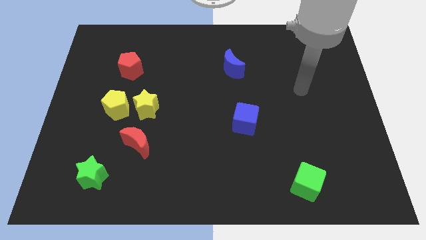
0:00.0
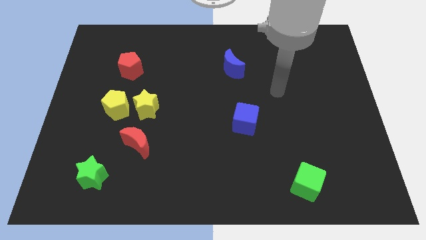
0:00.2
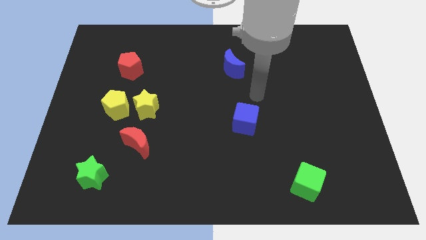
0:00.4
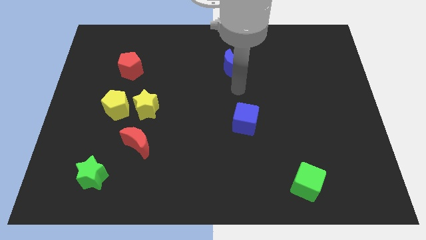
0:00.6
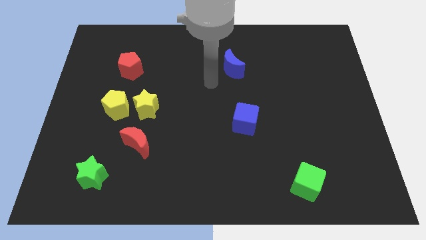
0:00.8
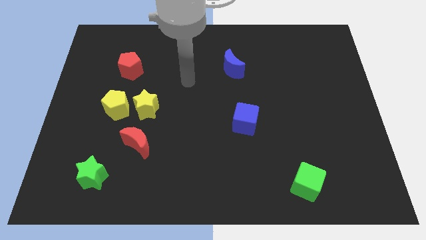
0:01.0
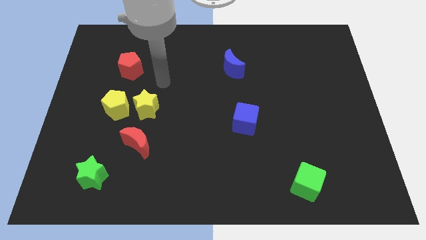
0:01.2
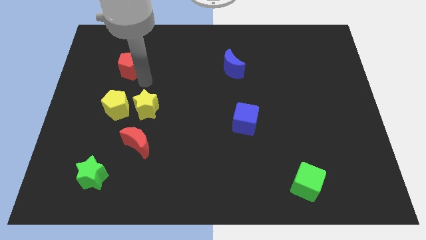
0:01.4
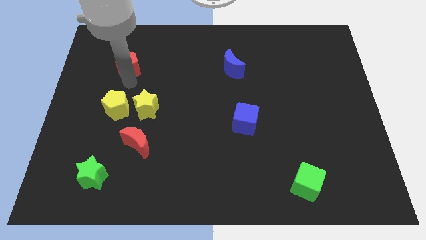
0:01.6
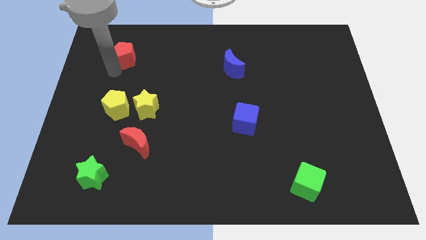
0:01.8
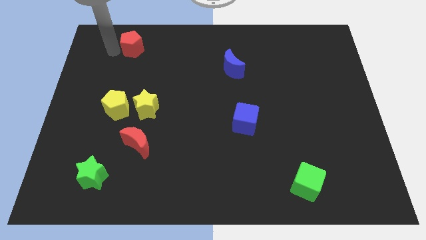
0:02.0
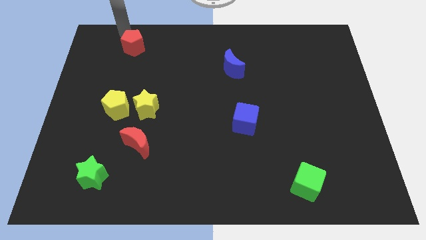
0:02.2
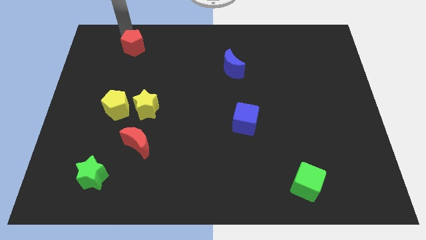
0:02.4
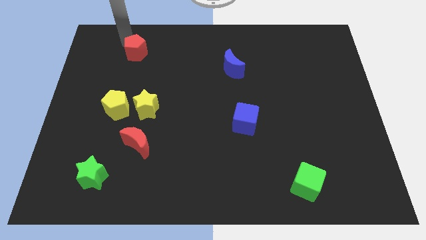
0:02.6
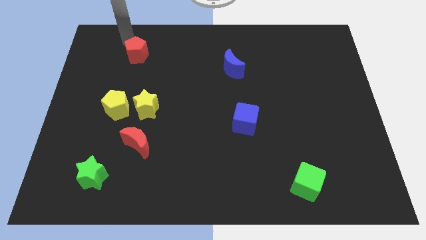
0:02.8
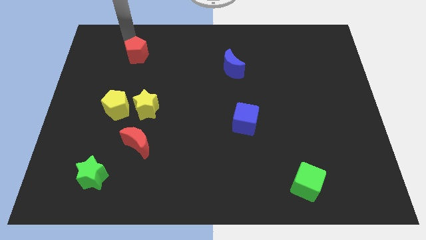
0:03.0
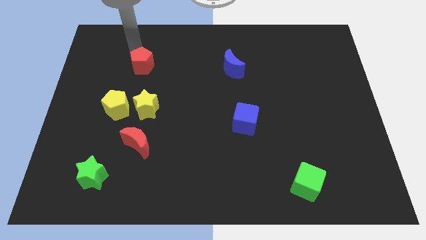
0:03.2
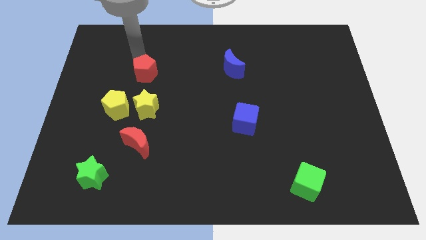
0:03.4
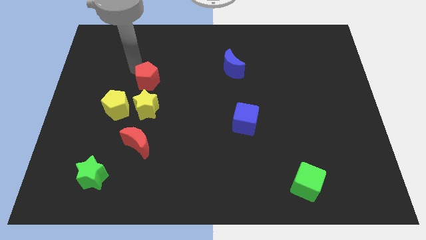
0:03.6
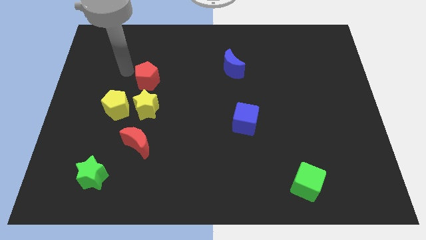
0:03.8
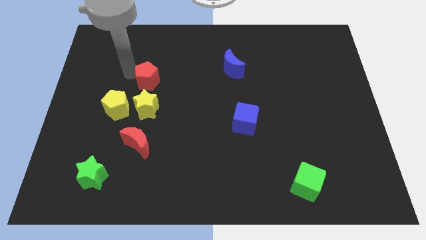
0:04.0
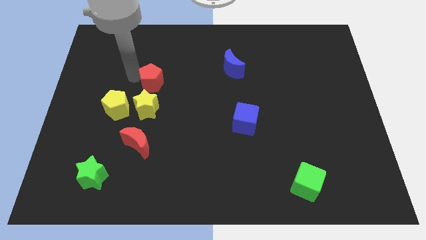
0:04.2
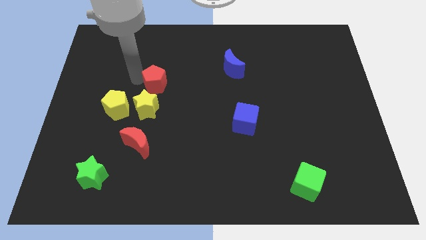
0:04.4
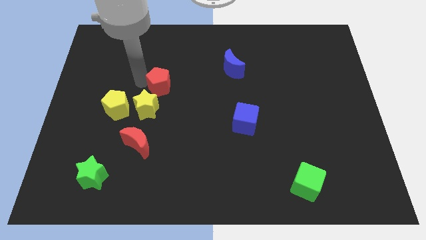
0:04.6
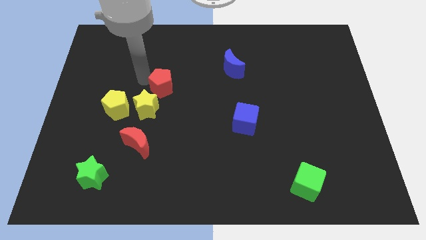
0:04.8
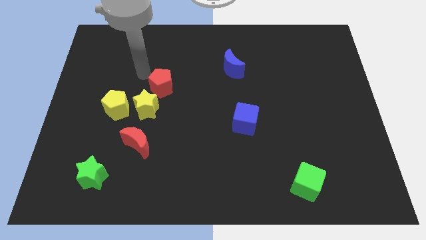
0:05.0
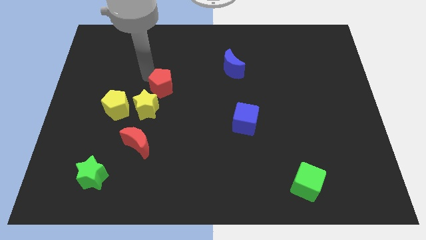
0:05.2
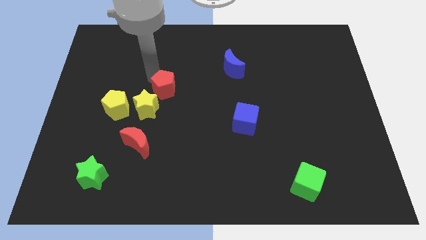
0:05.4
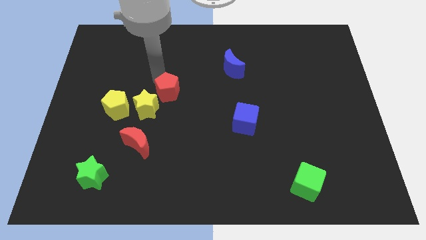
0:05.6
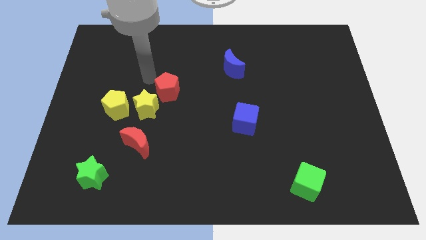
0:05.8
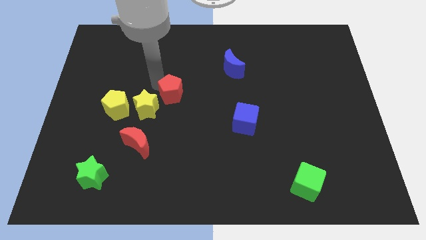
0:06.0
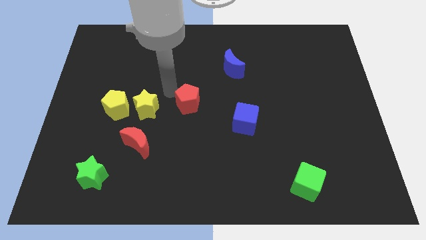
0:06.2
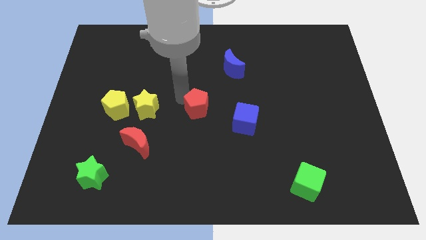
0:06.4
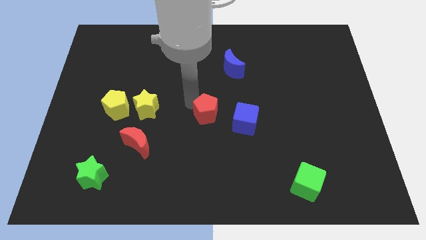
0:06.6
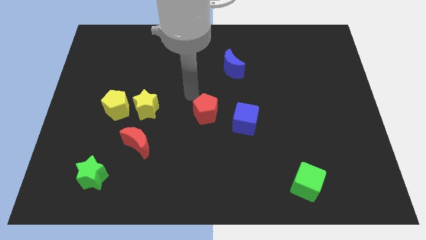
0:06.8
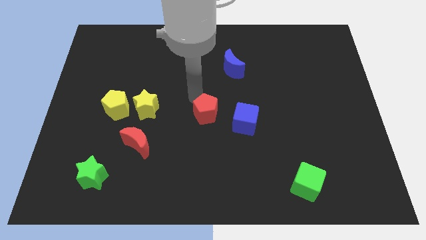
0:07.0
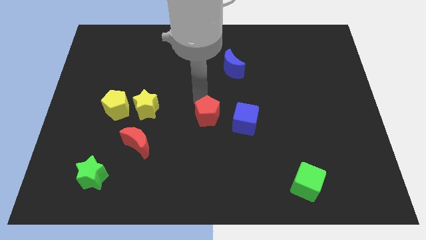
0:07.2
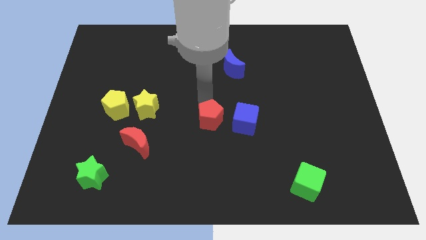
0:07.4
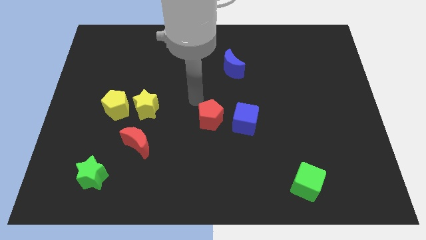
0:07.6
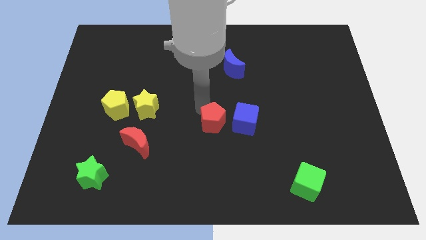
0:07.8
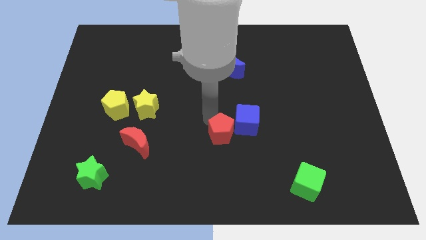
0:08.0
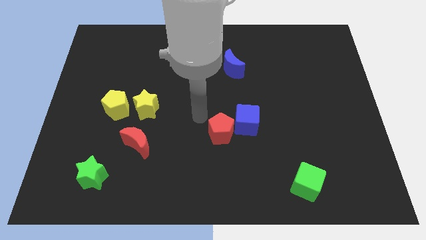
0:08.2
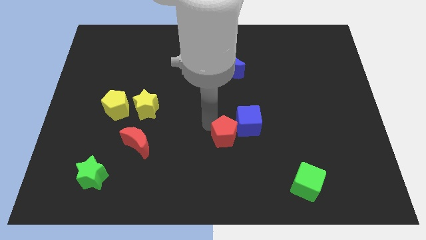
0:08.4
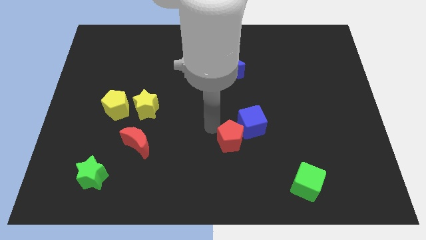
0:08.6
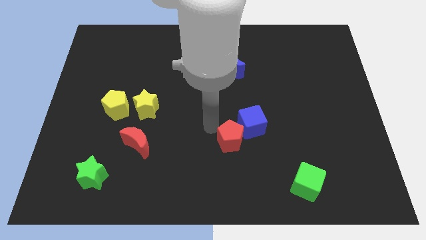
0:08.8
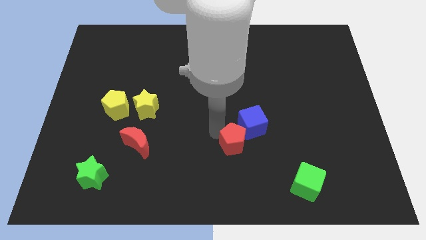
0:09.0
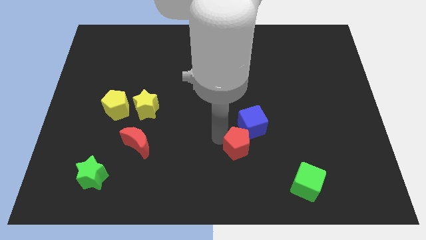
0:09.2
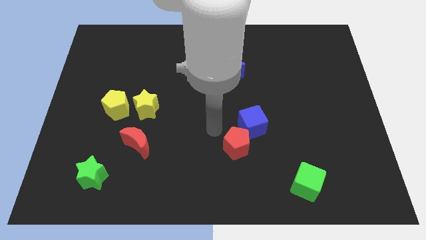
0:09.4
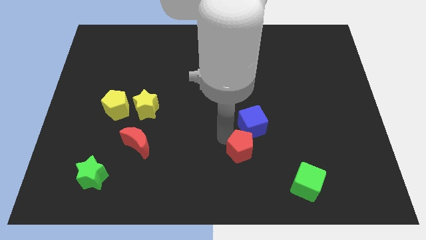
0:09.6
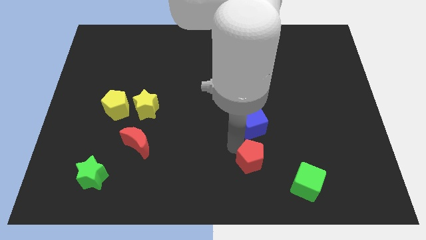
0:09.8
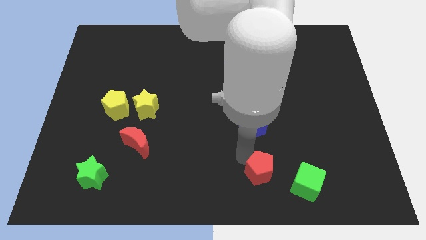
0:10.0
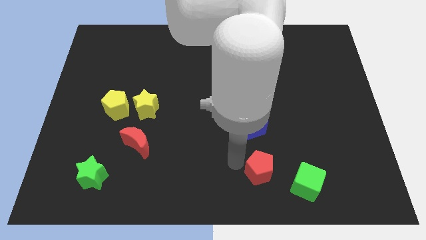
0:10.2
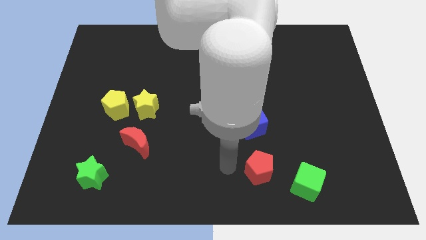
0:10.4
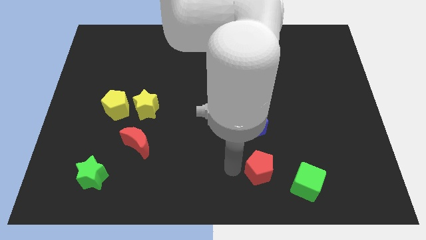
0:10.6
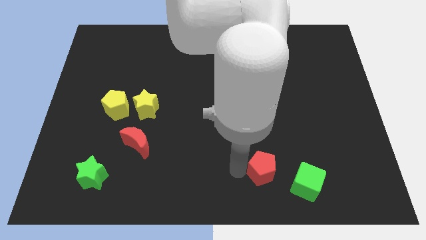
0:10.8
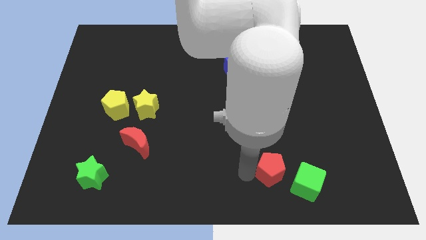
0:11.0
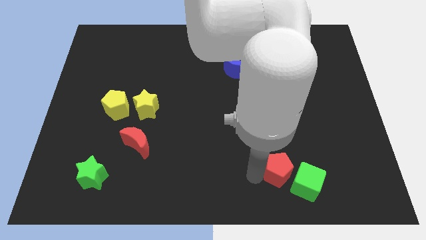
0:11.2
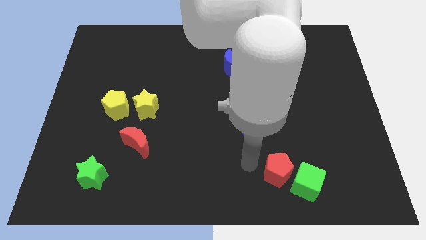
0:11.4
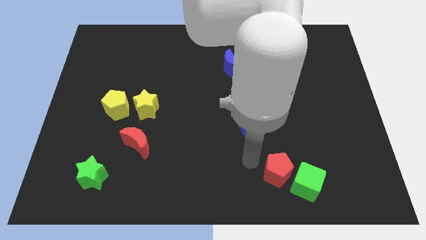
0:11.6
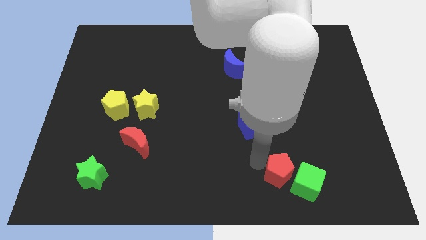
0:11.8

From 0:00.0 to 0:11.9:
put the red pentagon close to the green cube

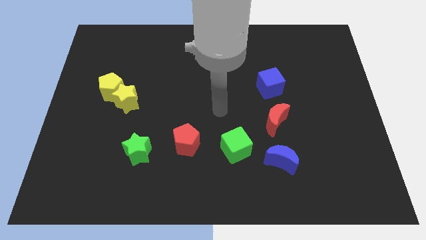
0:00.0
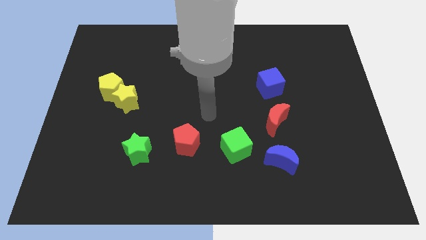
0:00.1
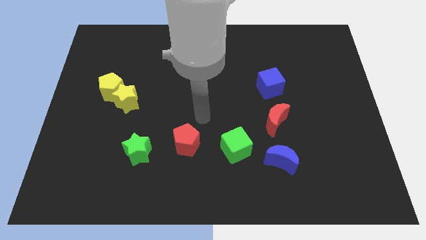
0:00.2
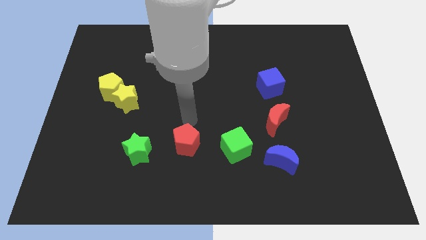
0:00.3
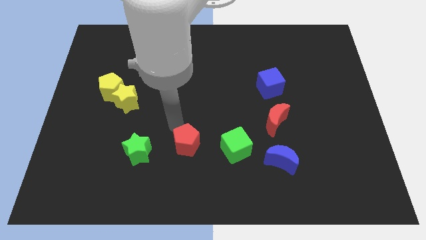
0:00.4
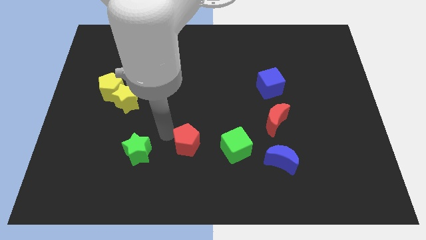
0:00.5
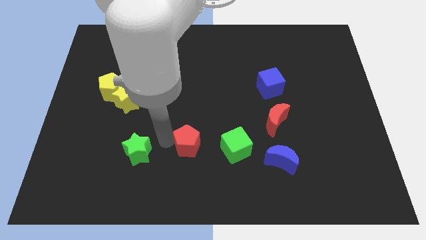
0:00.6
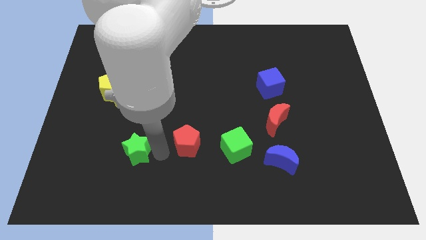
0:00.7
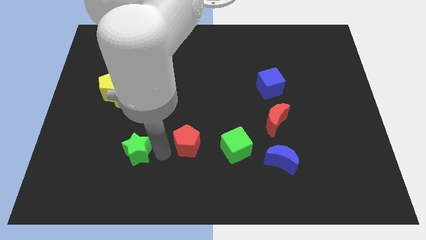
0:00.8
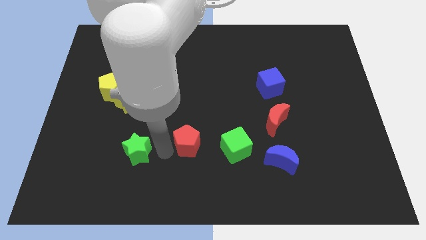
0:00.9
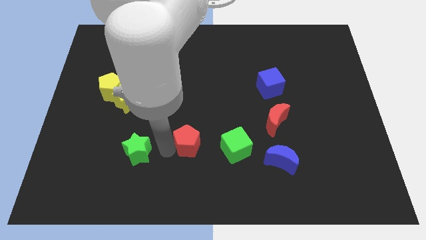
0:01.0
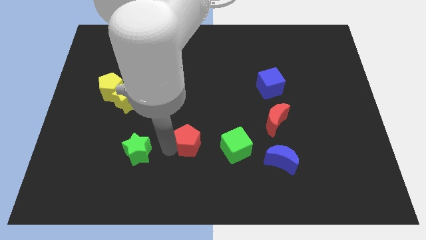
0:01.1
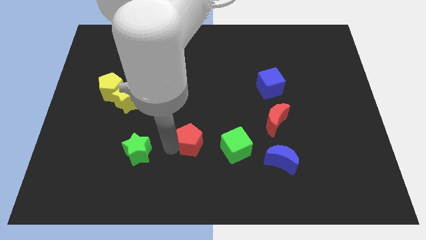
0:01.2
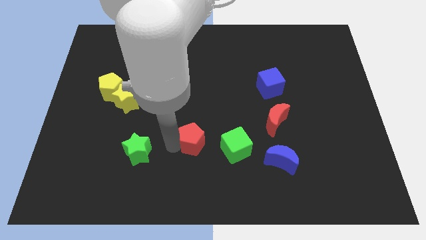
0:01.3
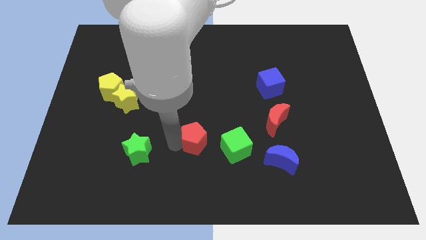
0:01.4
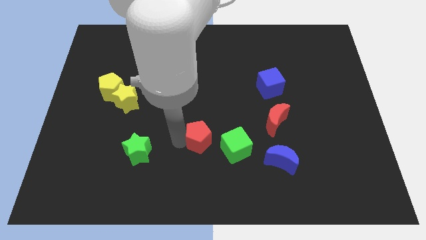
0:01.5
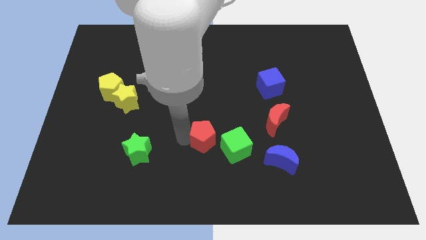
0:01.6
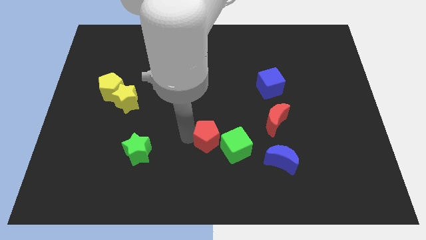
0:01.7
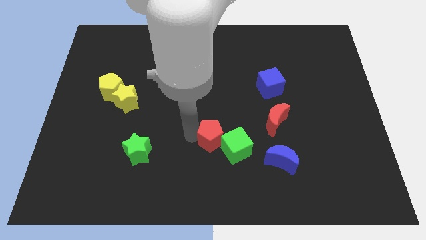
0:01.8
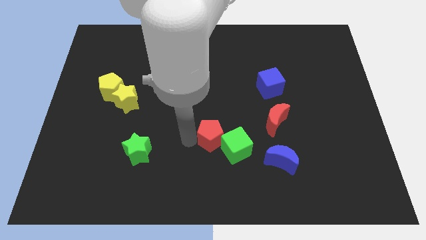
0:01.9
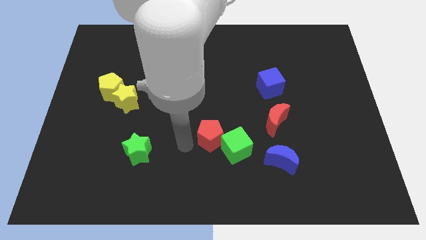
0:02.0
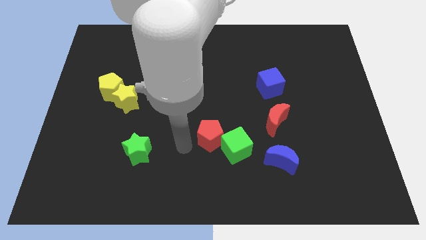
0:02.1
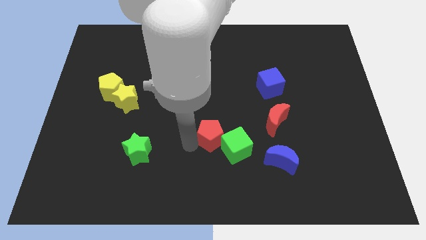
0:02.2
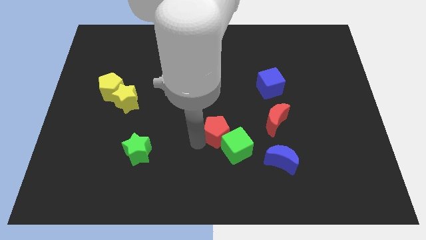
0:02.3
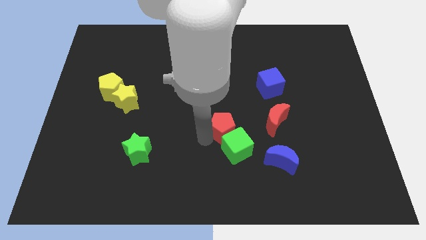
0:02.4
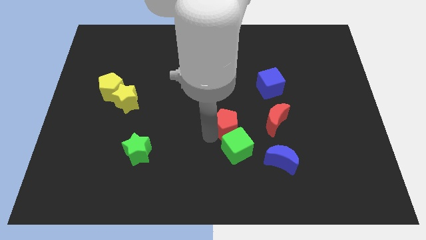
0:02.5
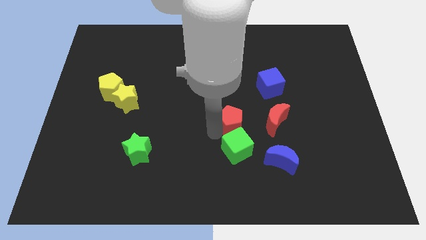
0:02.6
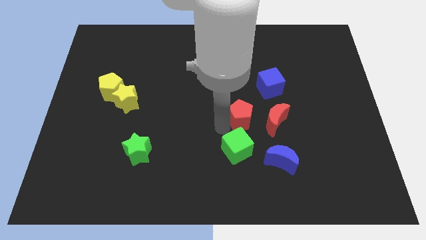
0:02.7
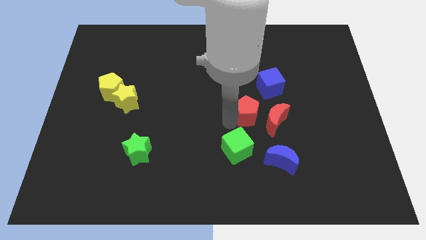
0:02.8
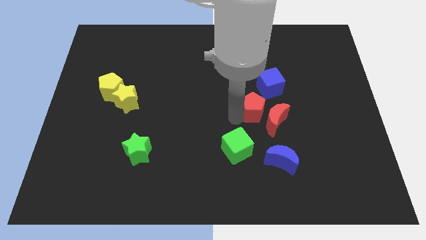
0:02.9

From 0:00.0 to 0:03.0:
move the red pentagon next to the red moon
